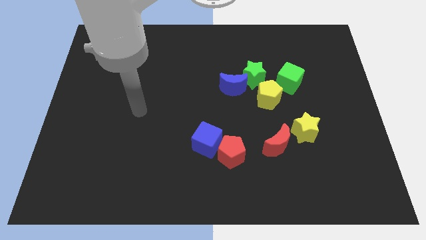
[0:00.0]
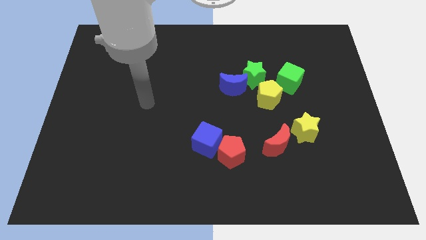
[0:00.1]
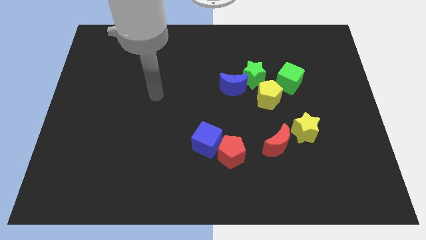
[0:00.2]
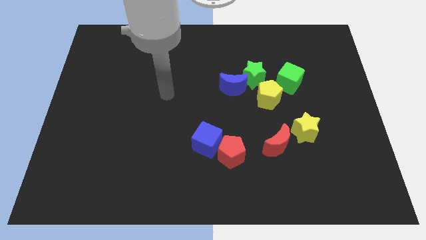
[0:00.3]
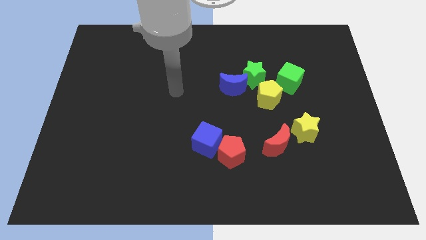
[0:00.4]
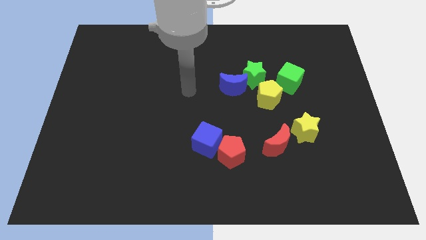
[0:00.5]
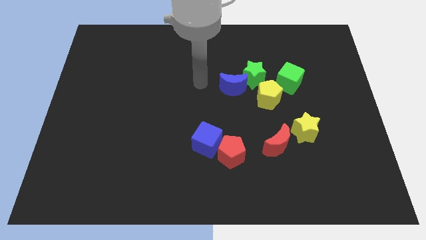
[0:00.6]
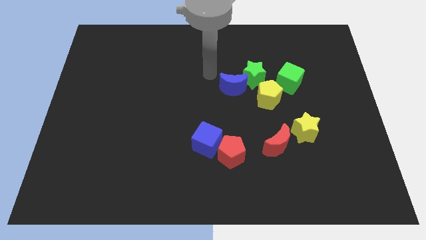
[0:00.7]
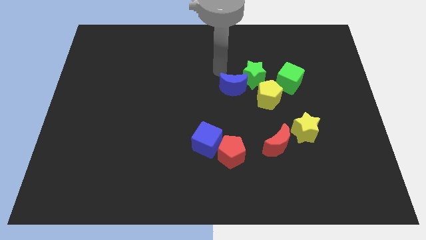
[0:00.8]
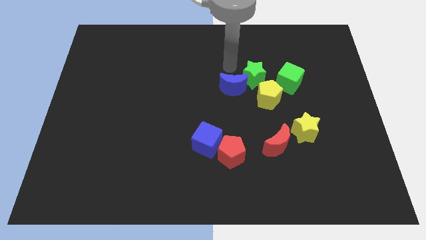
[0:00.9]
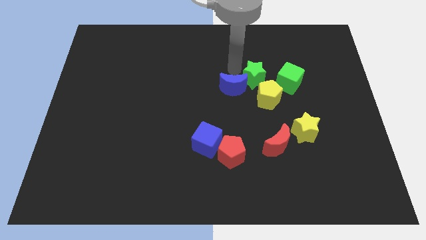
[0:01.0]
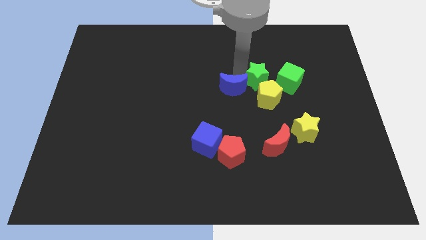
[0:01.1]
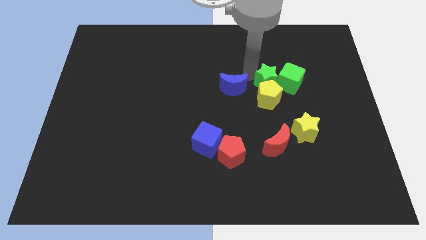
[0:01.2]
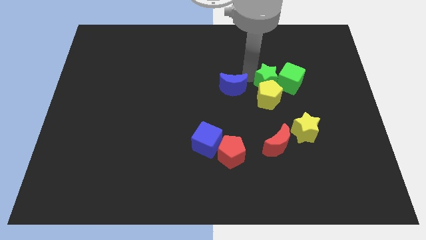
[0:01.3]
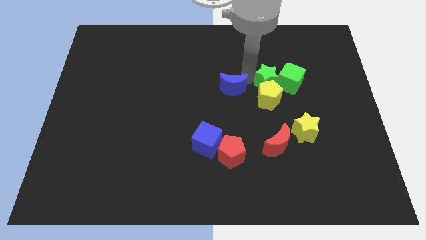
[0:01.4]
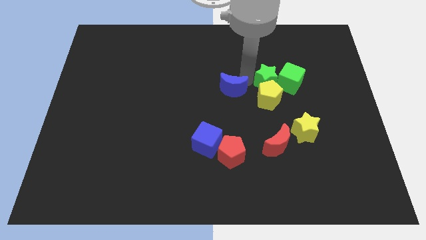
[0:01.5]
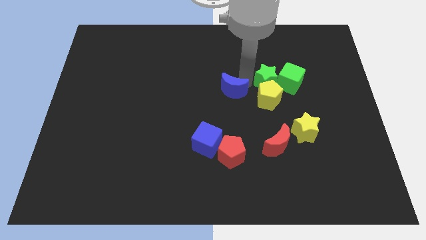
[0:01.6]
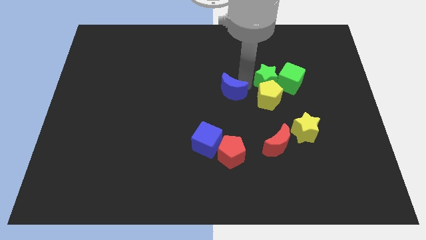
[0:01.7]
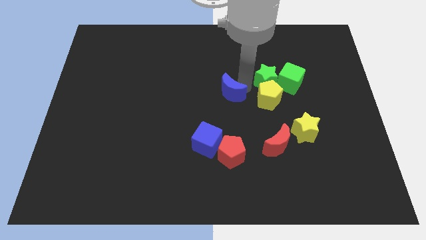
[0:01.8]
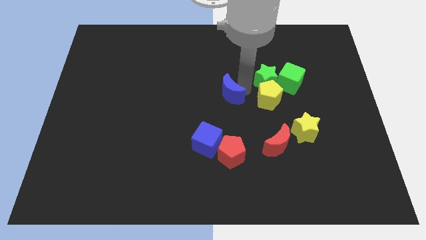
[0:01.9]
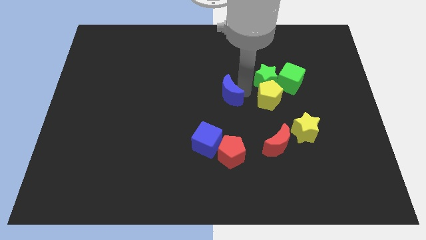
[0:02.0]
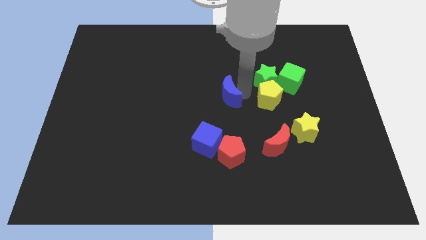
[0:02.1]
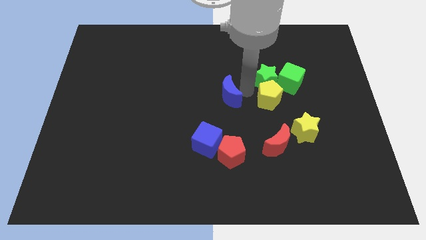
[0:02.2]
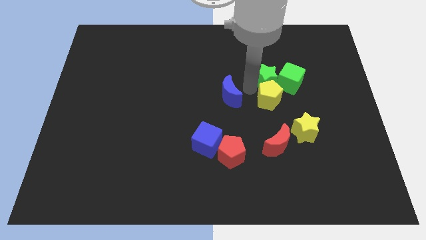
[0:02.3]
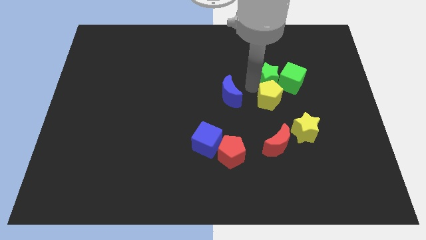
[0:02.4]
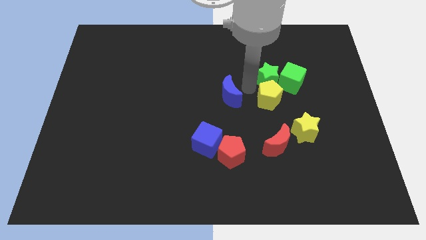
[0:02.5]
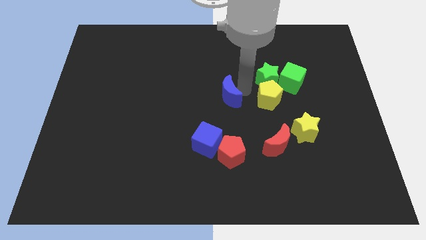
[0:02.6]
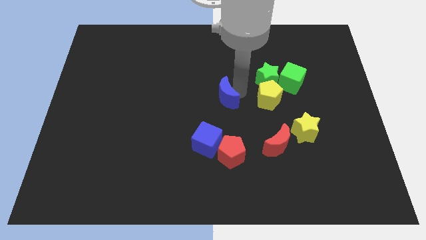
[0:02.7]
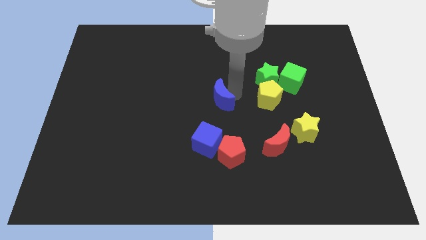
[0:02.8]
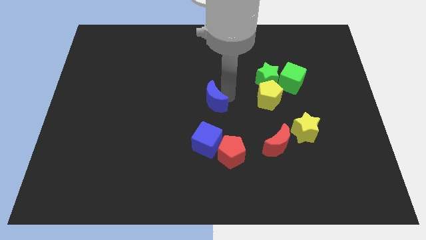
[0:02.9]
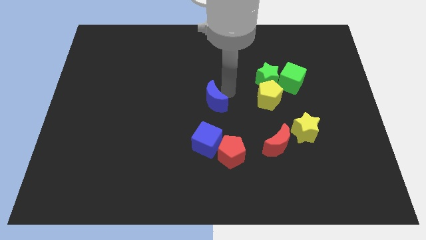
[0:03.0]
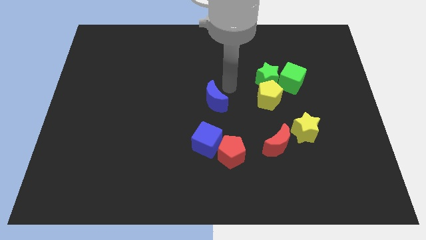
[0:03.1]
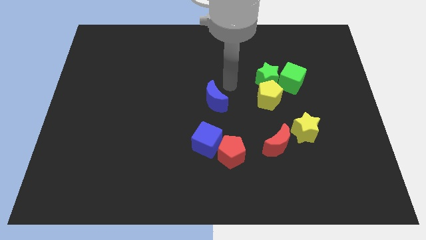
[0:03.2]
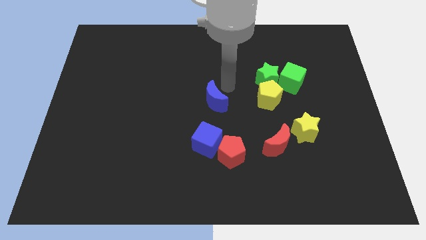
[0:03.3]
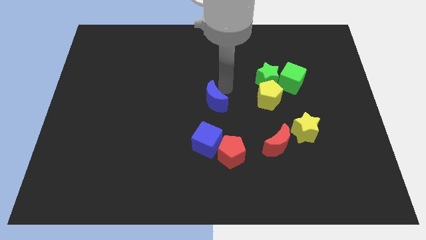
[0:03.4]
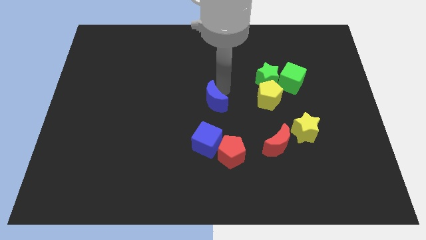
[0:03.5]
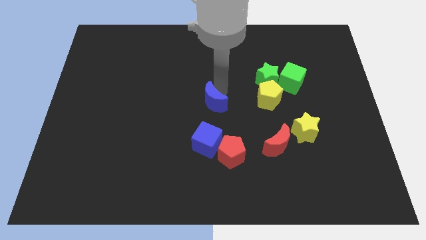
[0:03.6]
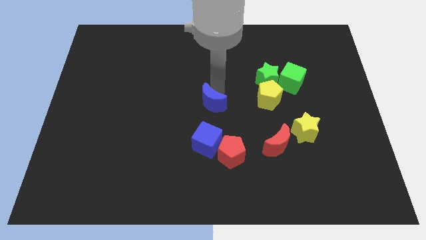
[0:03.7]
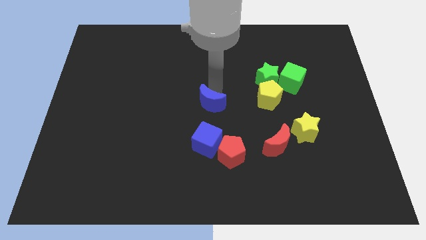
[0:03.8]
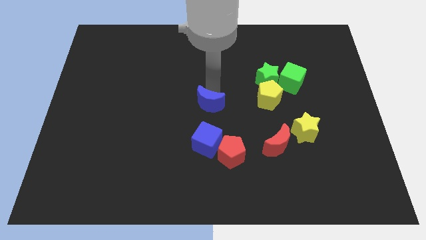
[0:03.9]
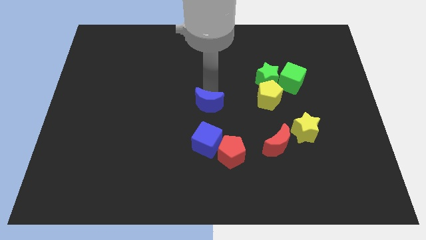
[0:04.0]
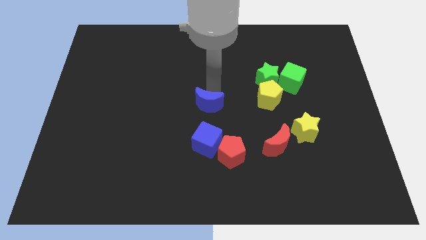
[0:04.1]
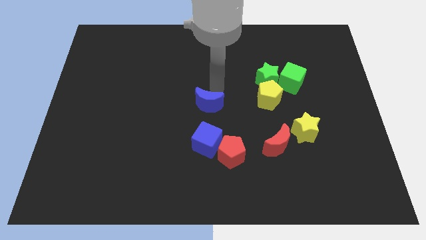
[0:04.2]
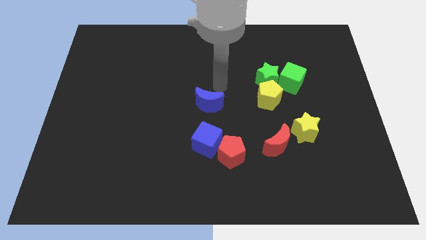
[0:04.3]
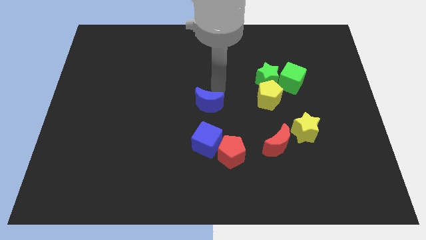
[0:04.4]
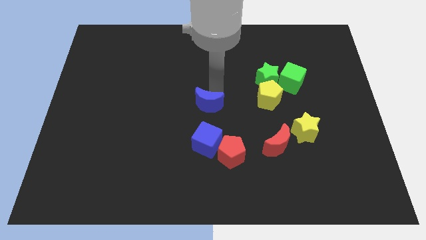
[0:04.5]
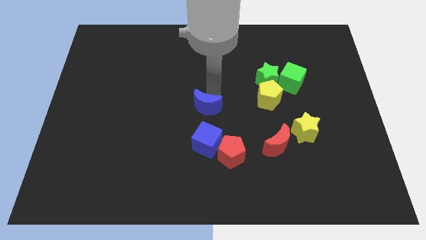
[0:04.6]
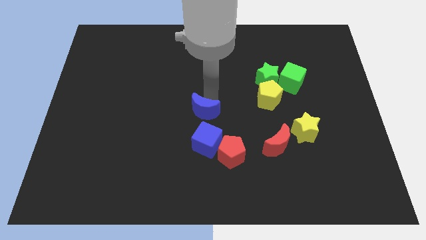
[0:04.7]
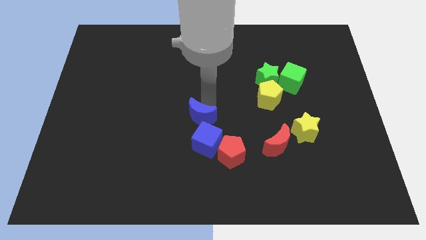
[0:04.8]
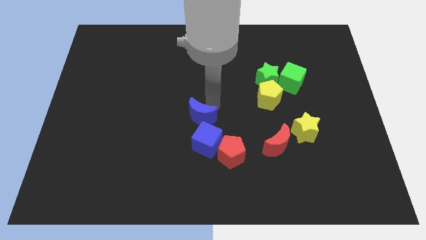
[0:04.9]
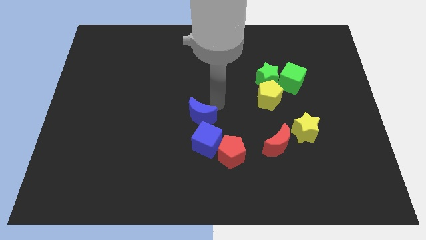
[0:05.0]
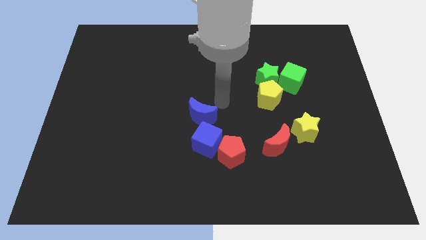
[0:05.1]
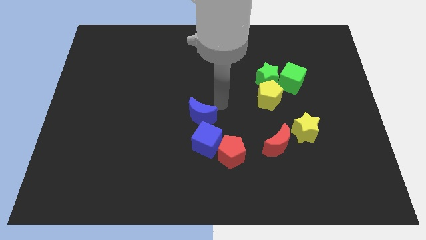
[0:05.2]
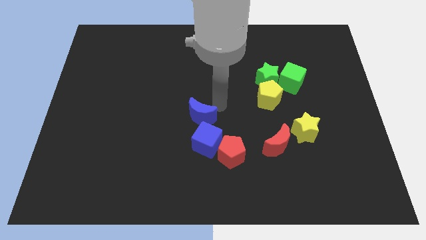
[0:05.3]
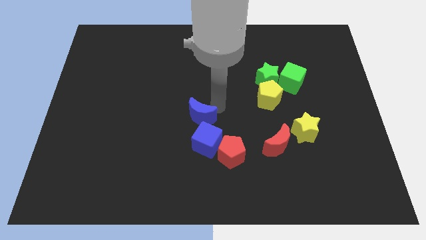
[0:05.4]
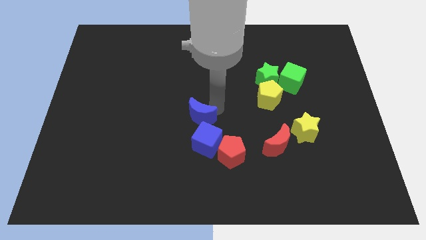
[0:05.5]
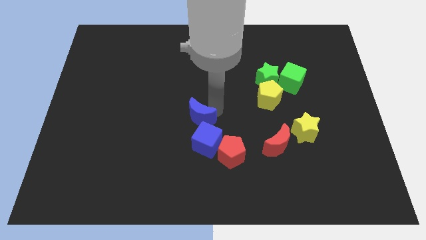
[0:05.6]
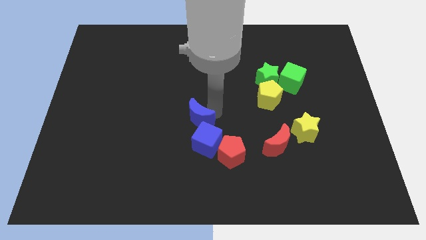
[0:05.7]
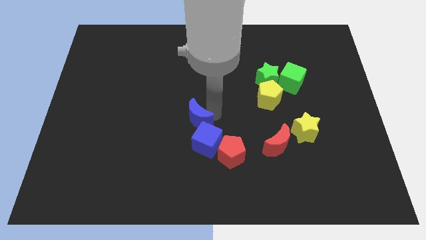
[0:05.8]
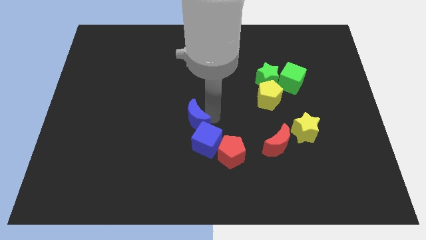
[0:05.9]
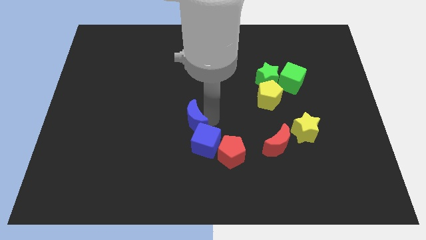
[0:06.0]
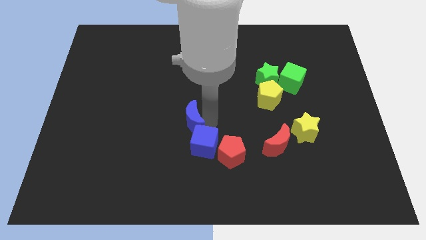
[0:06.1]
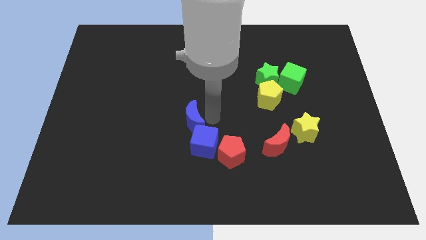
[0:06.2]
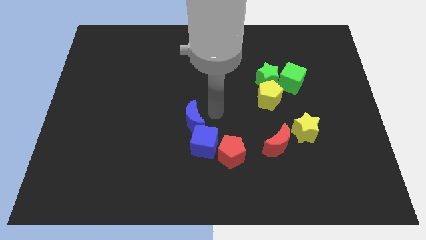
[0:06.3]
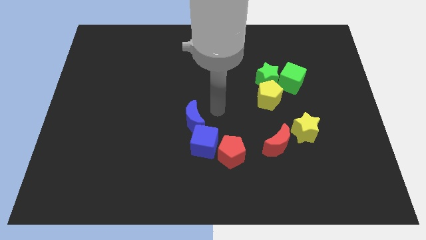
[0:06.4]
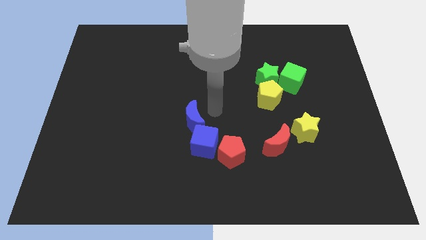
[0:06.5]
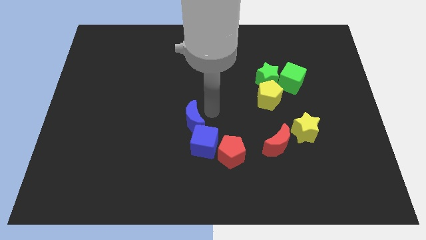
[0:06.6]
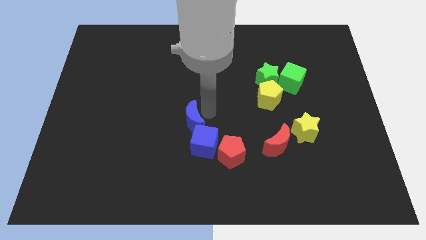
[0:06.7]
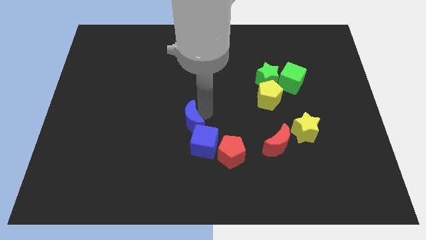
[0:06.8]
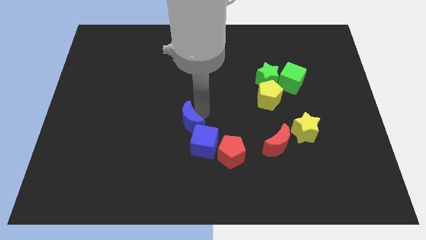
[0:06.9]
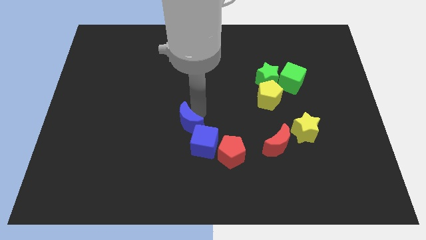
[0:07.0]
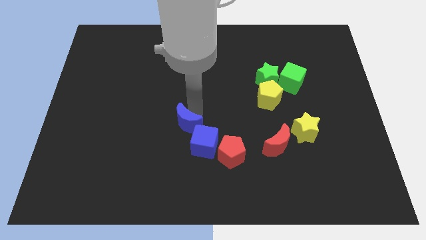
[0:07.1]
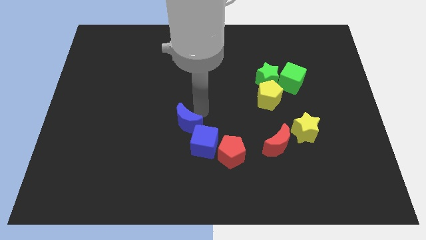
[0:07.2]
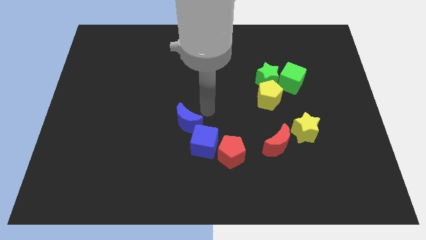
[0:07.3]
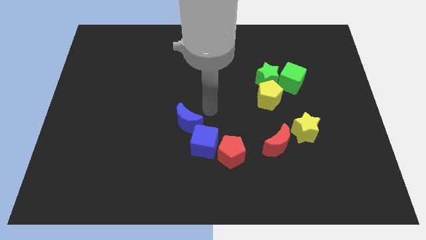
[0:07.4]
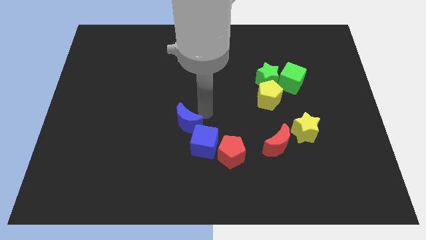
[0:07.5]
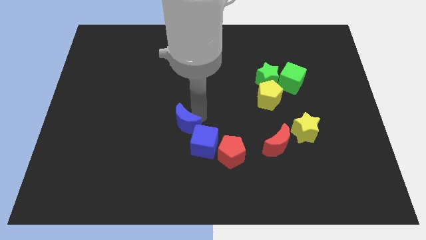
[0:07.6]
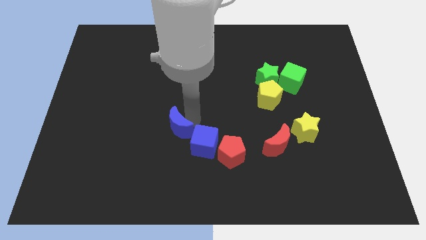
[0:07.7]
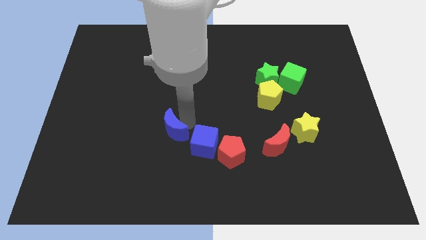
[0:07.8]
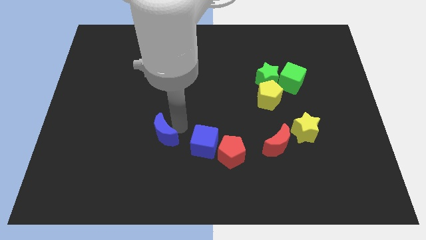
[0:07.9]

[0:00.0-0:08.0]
slide the blue moon downwards and left

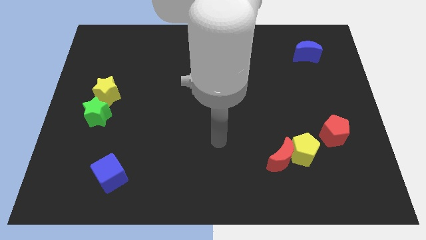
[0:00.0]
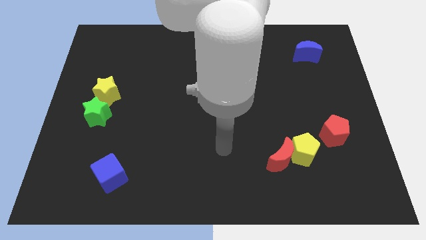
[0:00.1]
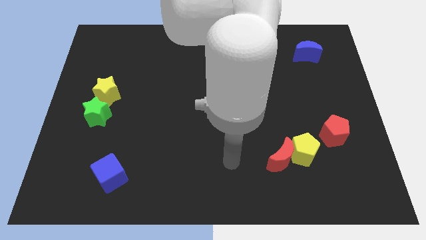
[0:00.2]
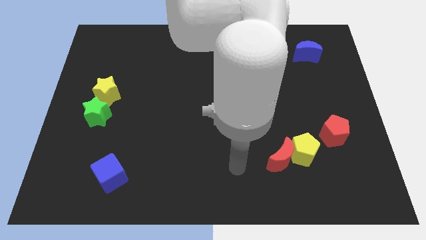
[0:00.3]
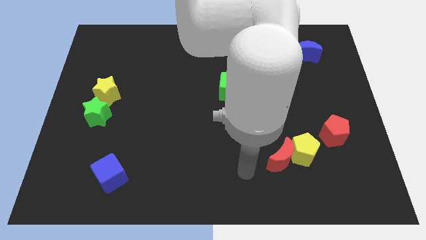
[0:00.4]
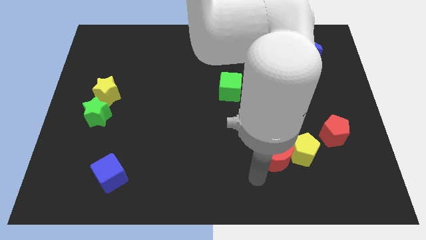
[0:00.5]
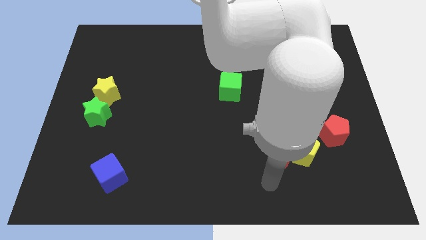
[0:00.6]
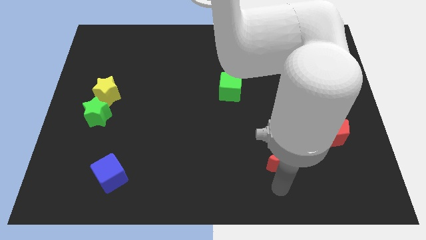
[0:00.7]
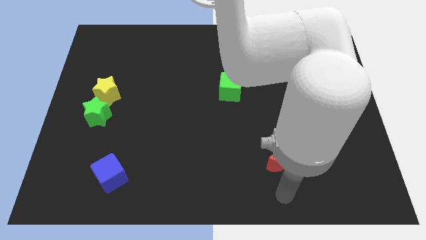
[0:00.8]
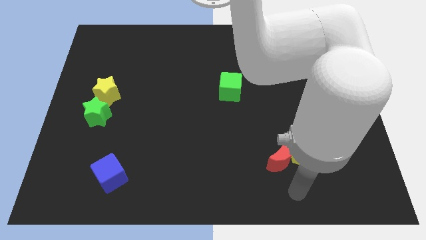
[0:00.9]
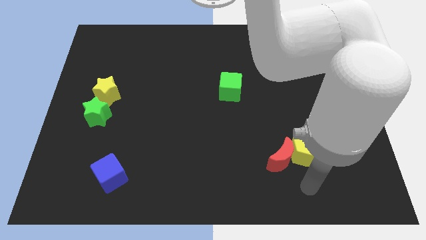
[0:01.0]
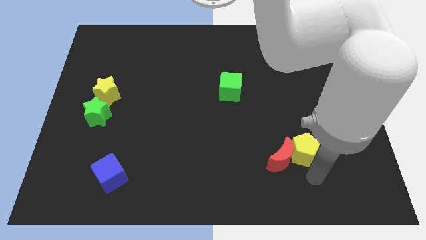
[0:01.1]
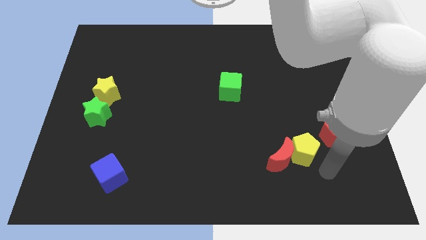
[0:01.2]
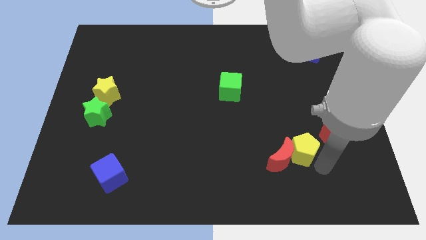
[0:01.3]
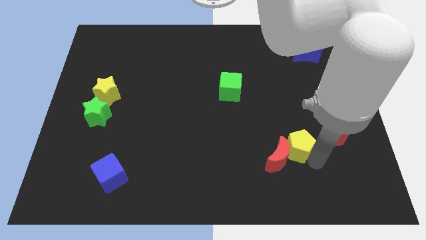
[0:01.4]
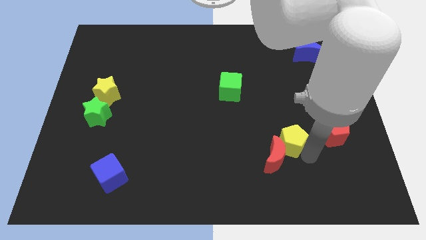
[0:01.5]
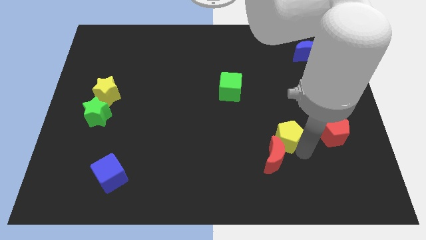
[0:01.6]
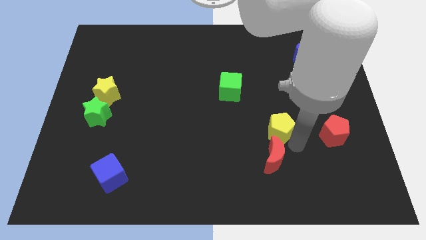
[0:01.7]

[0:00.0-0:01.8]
slide the yellow pentagon diagonally up and left somewhat
